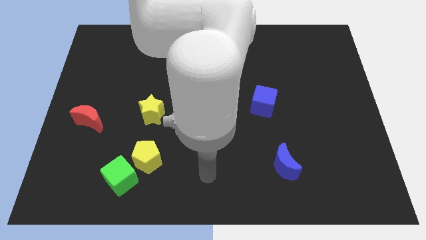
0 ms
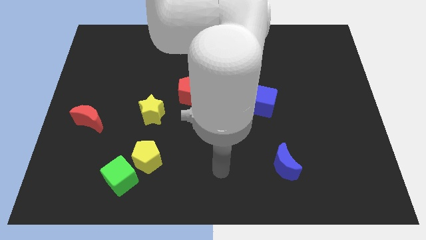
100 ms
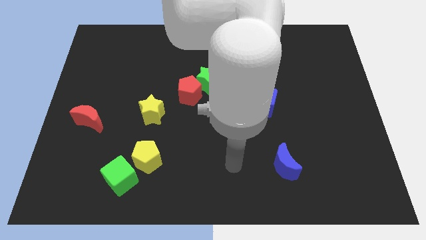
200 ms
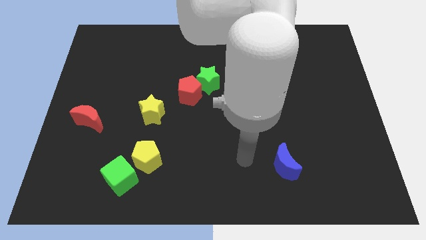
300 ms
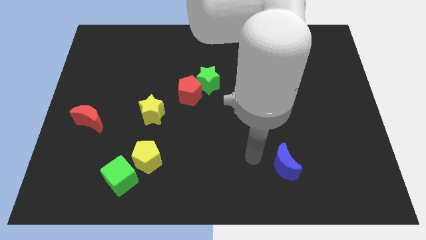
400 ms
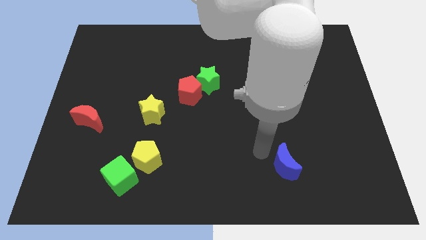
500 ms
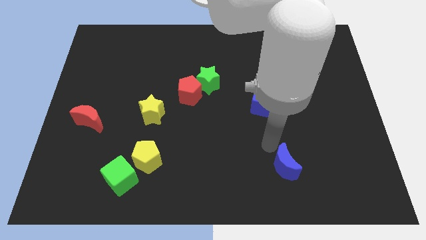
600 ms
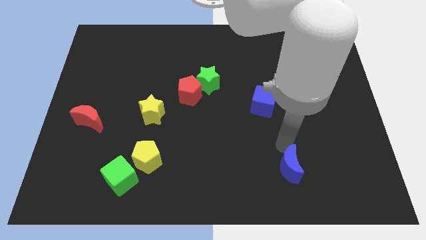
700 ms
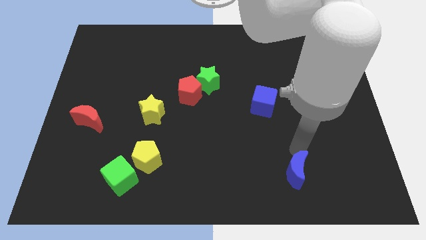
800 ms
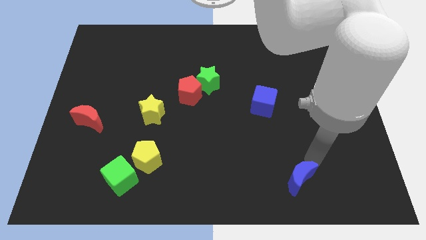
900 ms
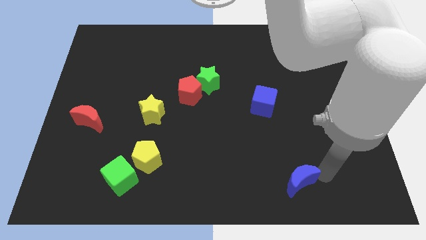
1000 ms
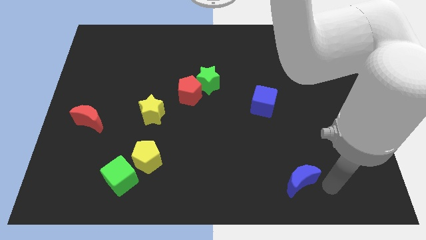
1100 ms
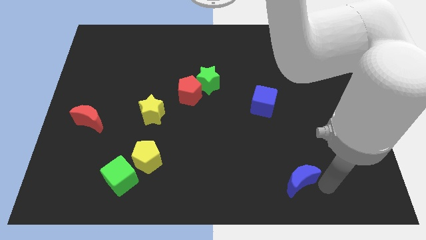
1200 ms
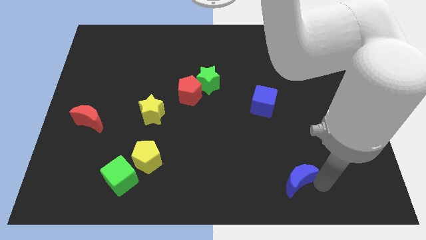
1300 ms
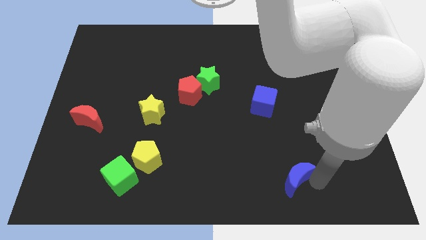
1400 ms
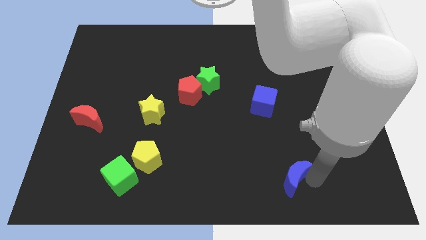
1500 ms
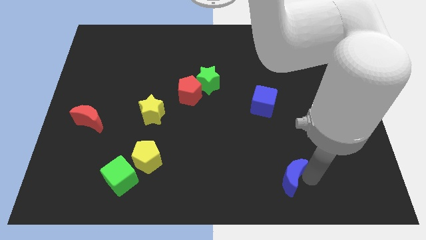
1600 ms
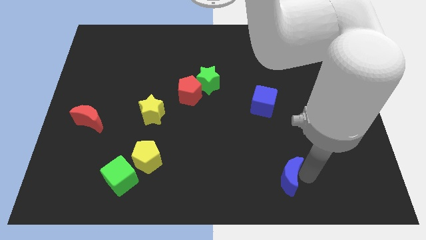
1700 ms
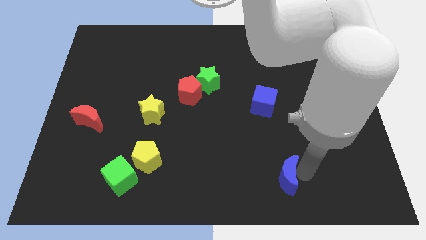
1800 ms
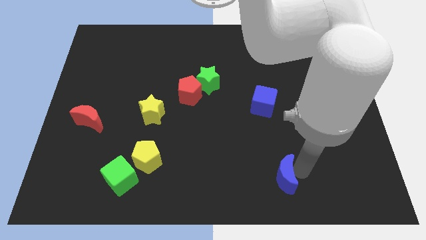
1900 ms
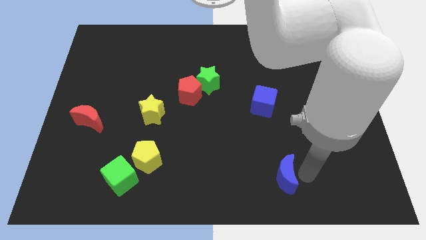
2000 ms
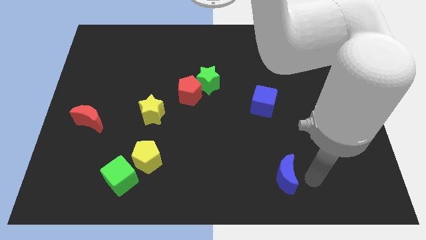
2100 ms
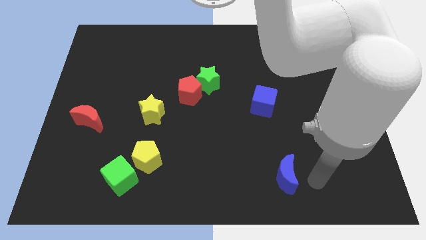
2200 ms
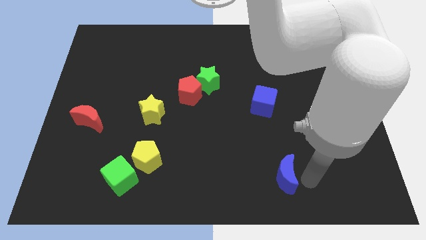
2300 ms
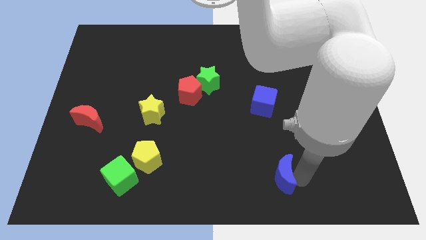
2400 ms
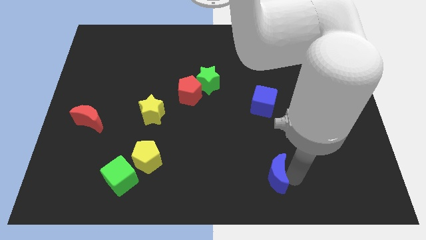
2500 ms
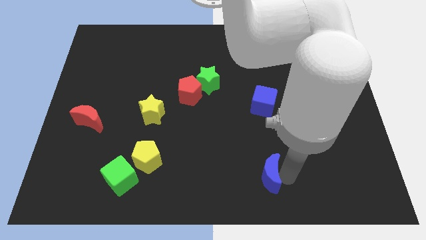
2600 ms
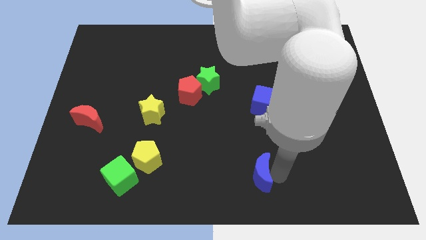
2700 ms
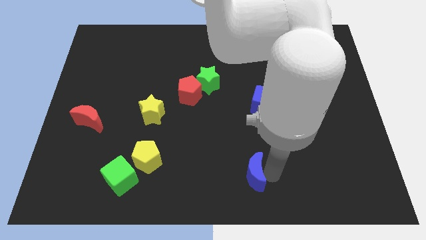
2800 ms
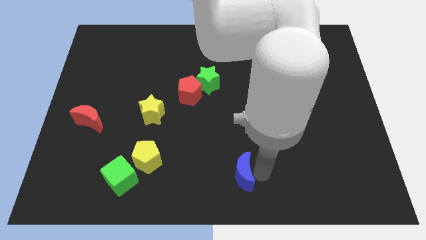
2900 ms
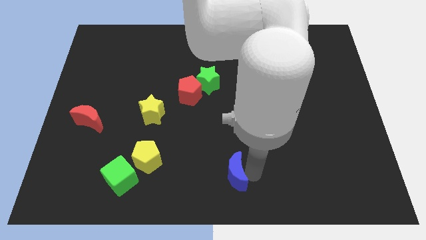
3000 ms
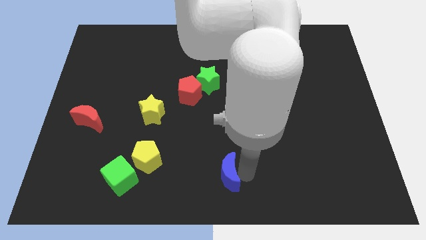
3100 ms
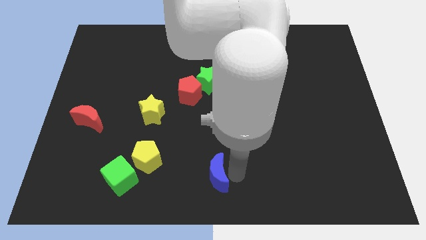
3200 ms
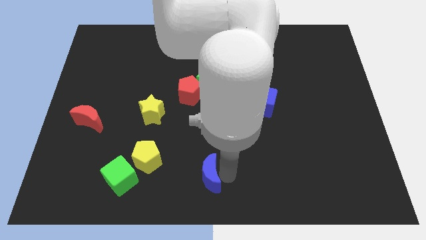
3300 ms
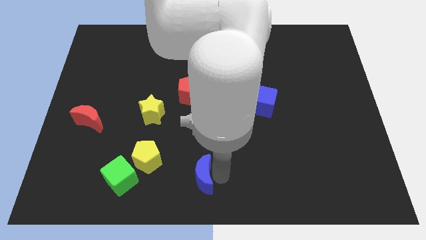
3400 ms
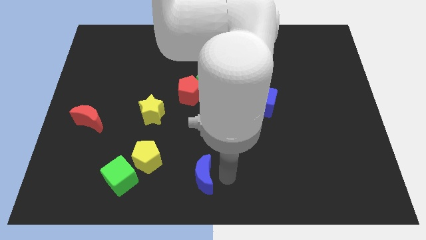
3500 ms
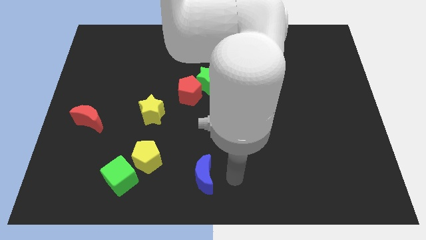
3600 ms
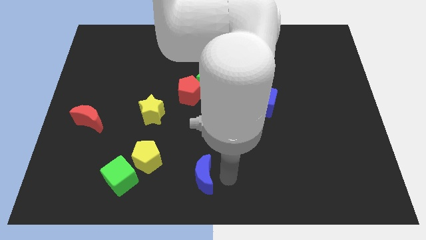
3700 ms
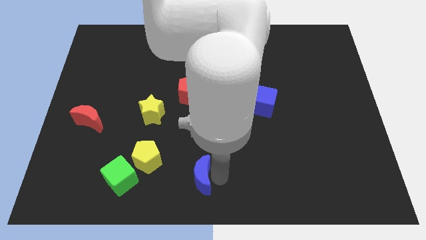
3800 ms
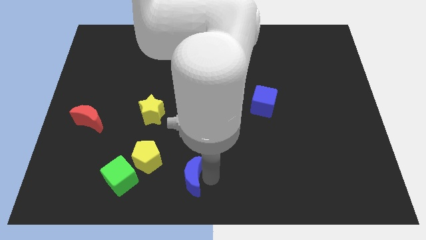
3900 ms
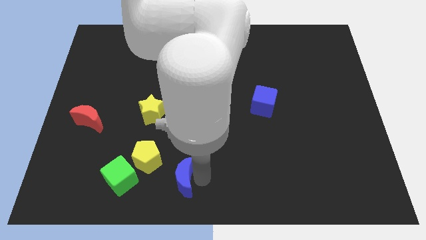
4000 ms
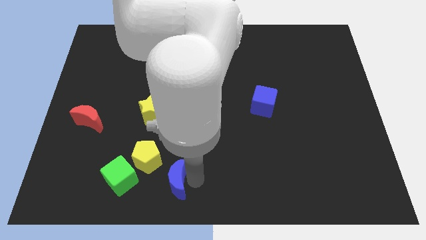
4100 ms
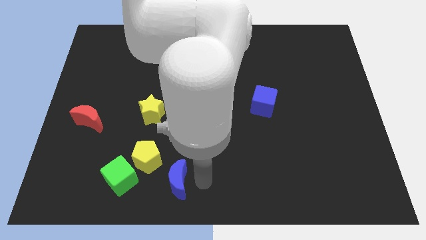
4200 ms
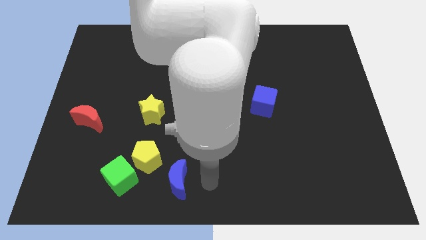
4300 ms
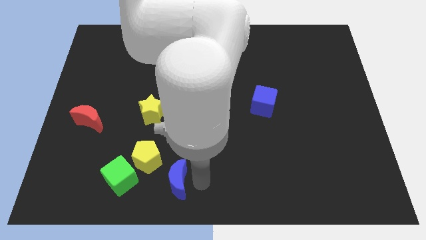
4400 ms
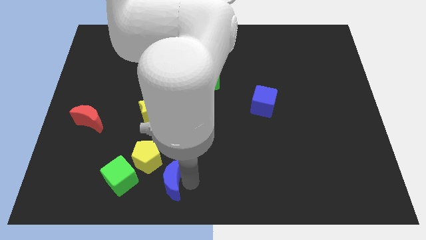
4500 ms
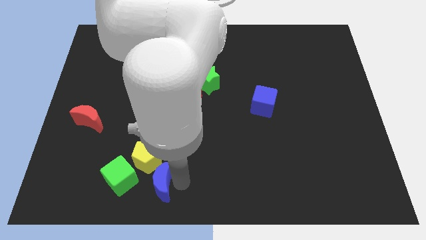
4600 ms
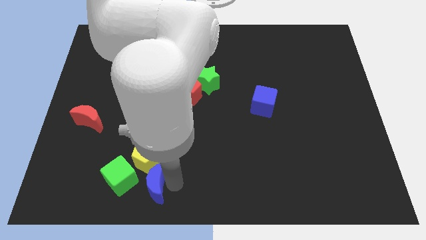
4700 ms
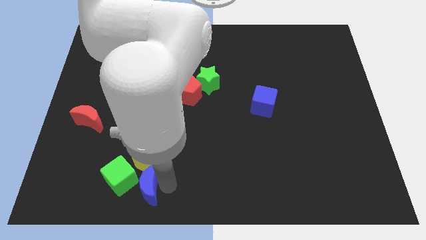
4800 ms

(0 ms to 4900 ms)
move the blue moon towards the green cube

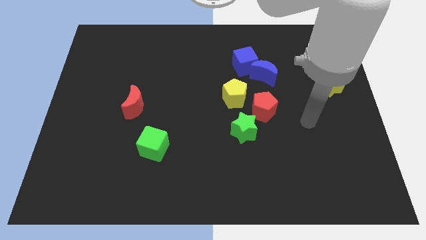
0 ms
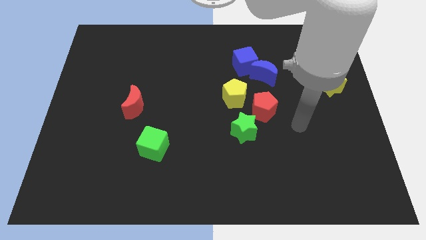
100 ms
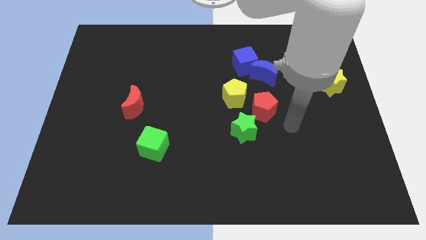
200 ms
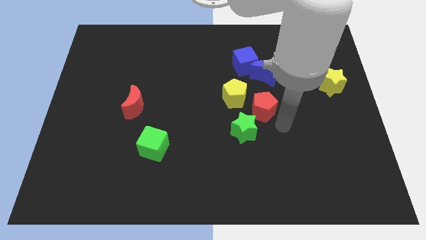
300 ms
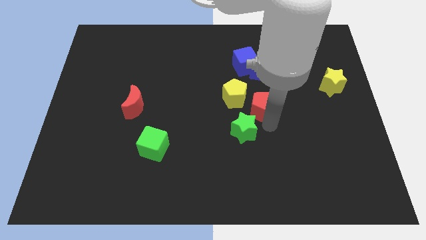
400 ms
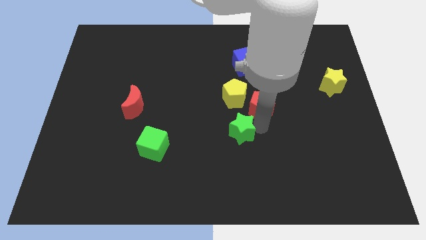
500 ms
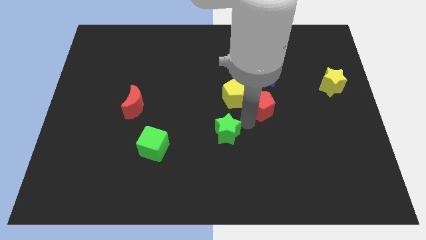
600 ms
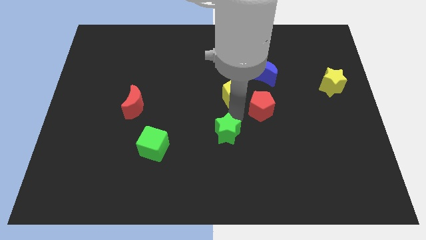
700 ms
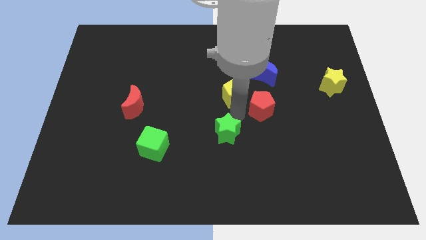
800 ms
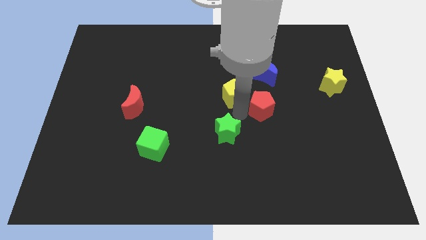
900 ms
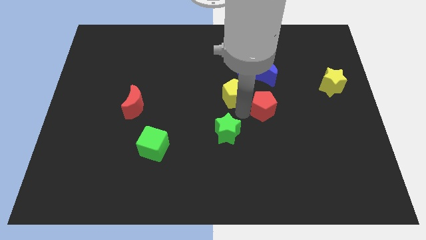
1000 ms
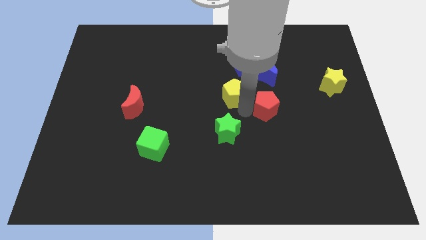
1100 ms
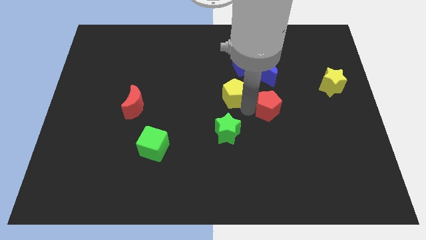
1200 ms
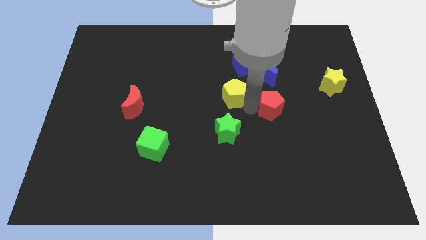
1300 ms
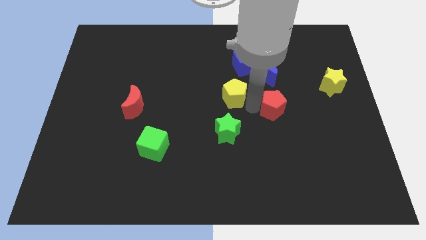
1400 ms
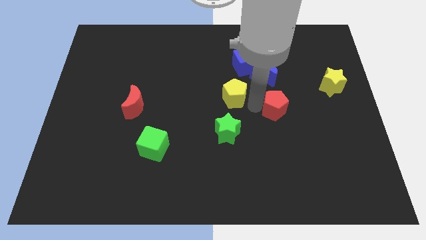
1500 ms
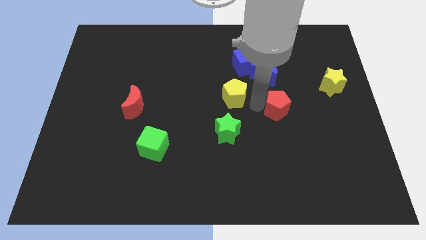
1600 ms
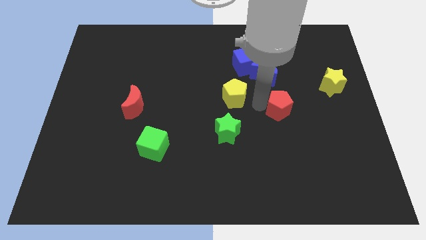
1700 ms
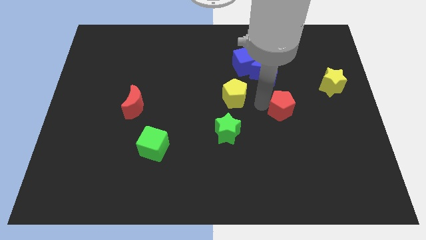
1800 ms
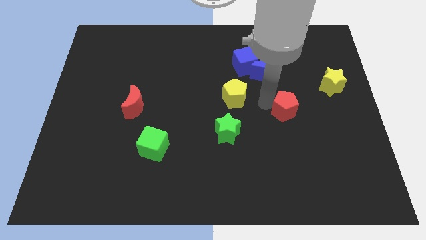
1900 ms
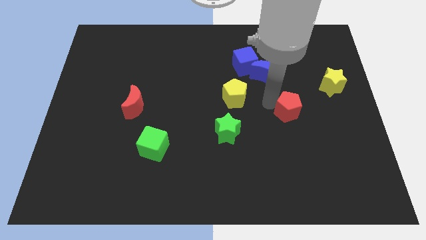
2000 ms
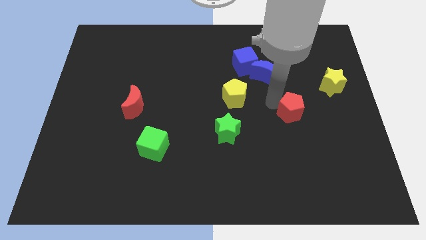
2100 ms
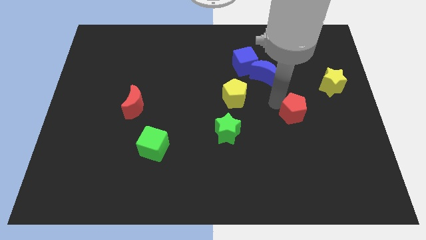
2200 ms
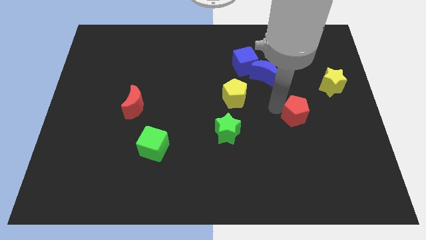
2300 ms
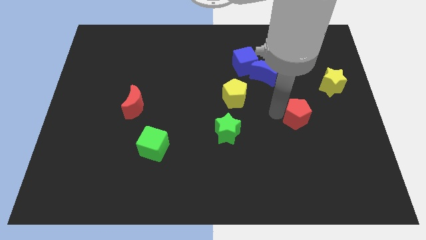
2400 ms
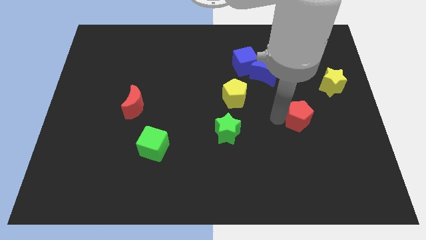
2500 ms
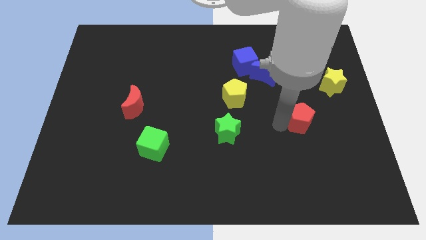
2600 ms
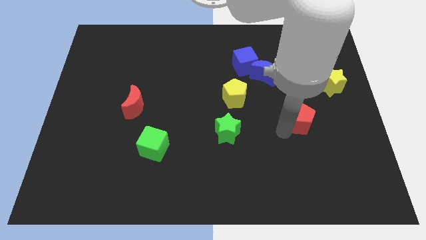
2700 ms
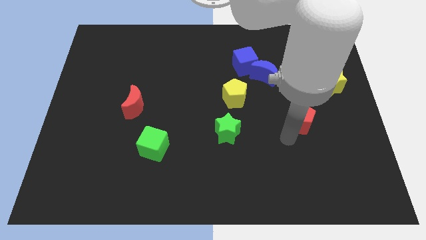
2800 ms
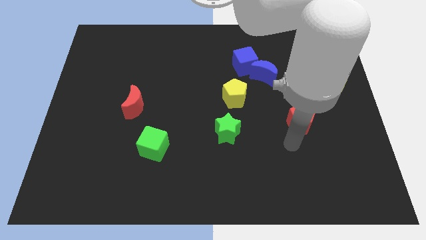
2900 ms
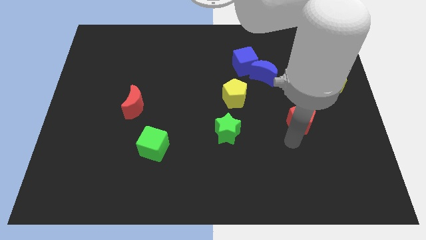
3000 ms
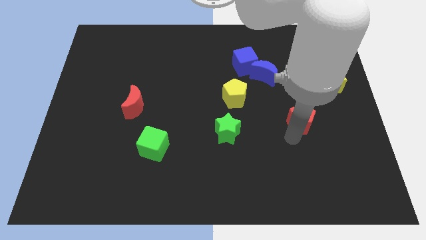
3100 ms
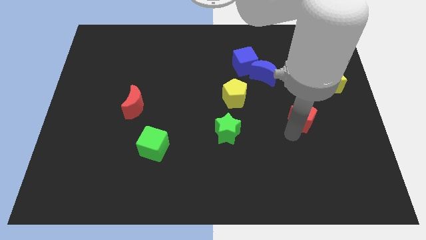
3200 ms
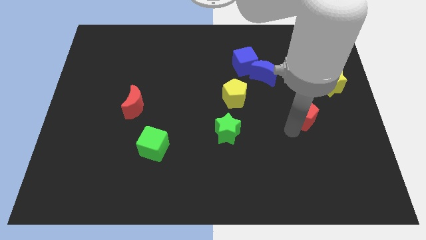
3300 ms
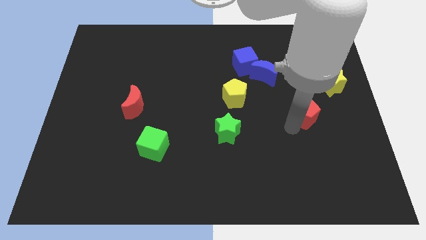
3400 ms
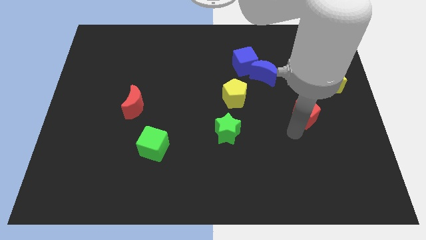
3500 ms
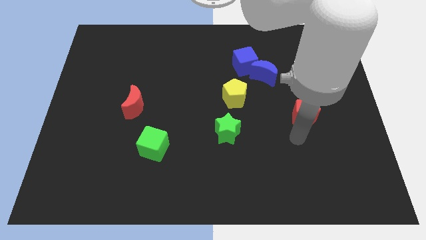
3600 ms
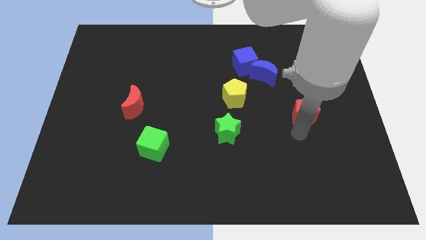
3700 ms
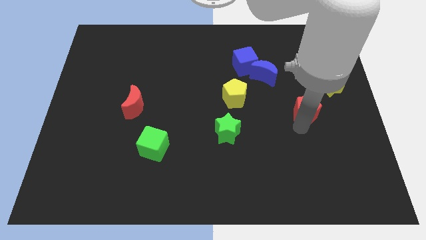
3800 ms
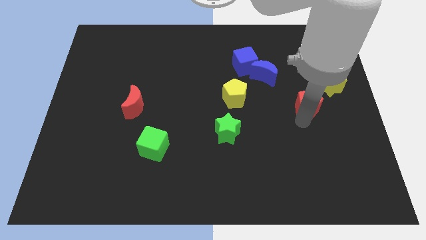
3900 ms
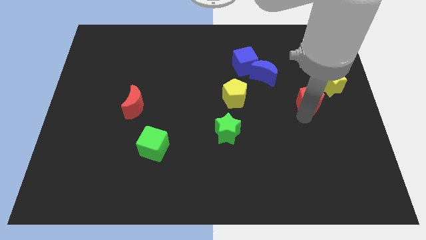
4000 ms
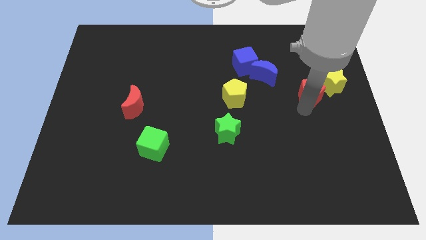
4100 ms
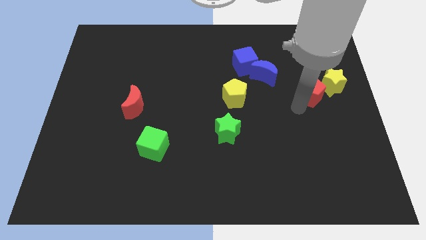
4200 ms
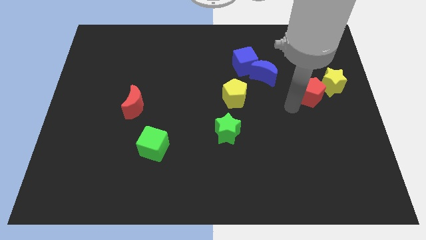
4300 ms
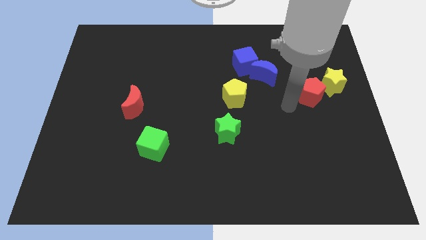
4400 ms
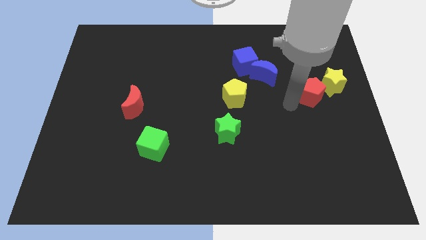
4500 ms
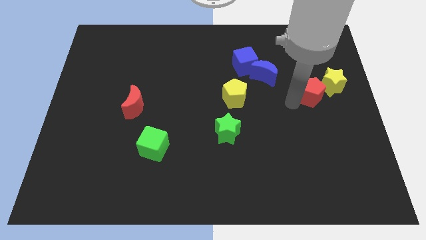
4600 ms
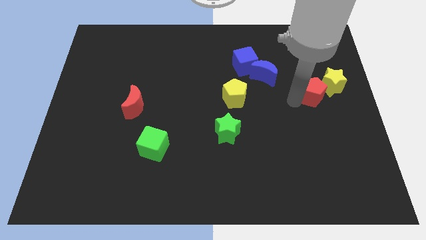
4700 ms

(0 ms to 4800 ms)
put the red pentagon next to the yellow star
